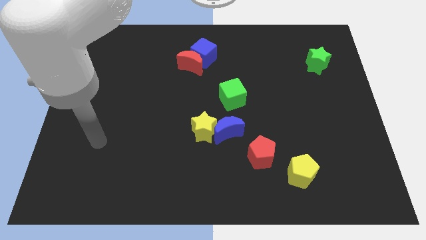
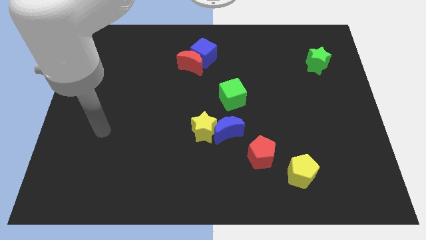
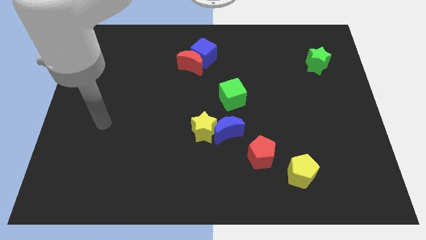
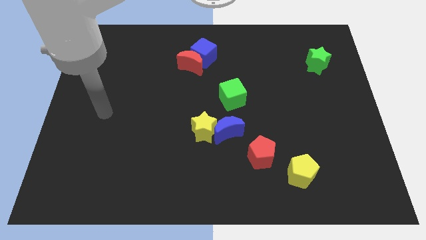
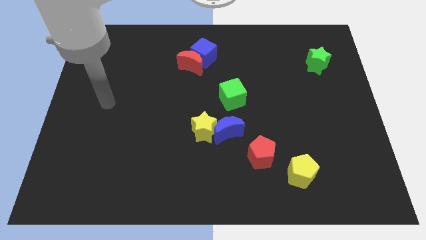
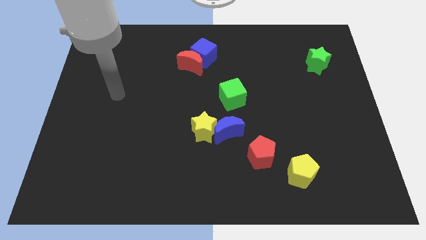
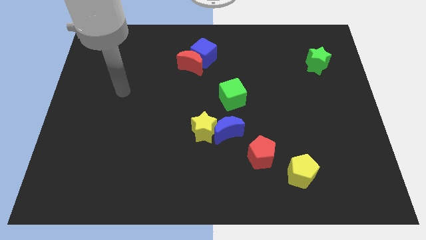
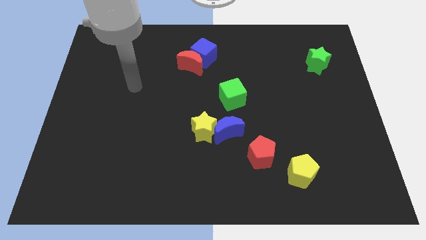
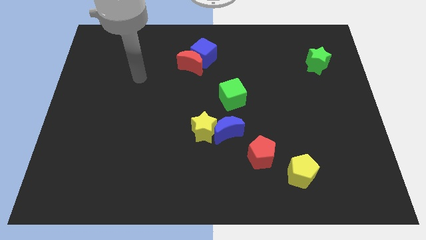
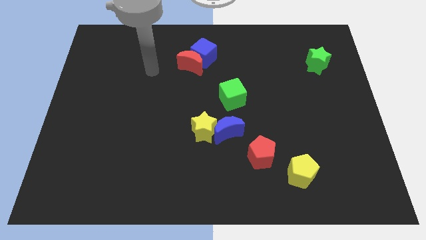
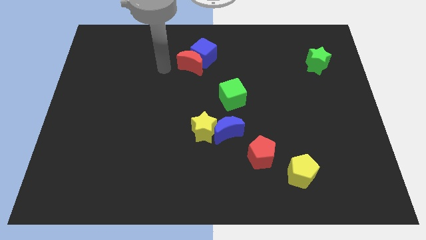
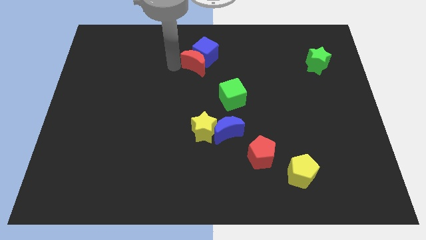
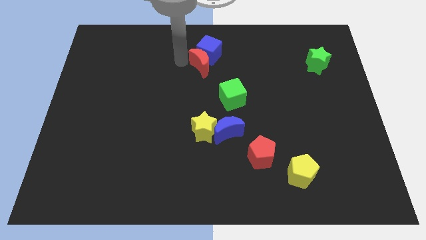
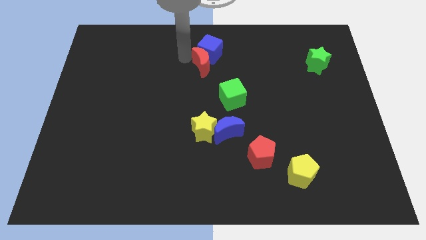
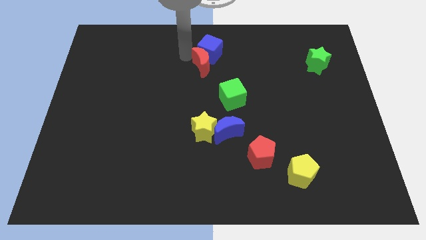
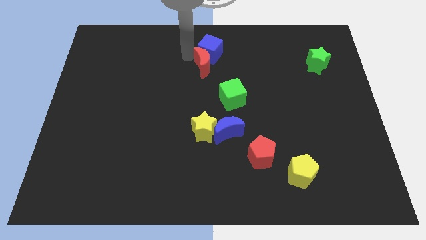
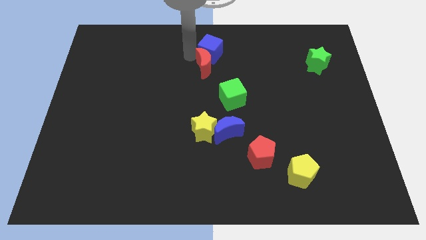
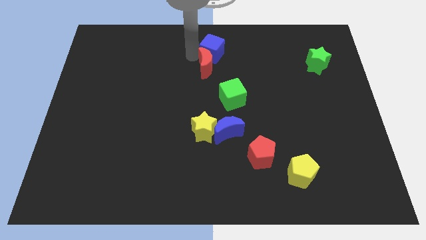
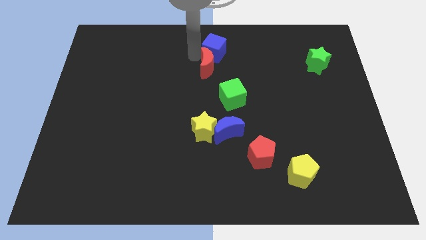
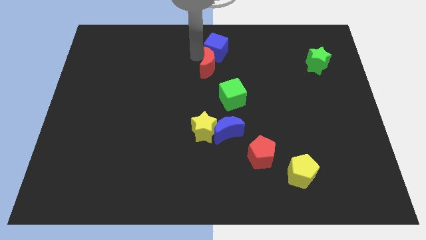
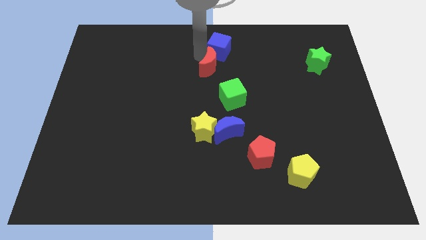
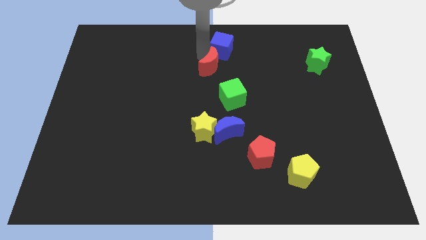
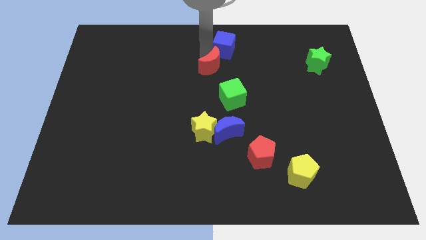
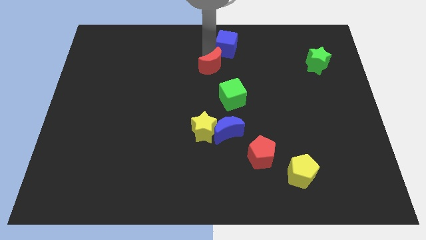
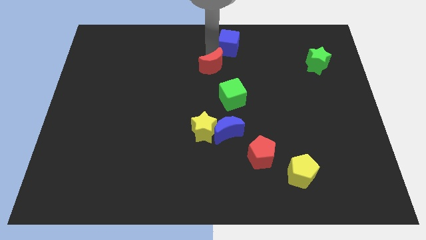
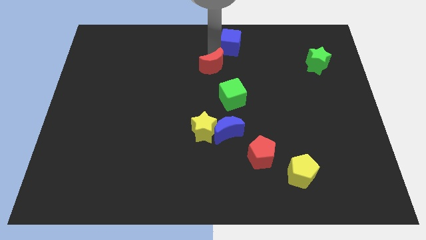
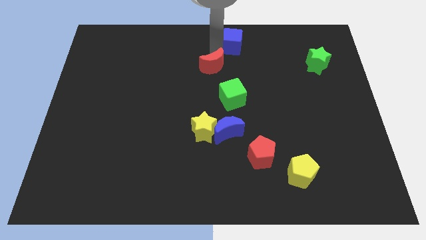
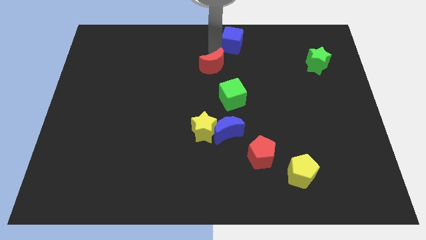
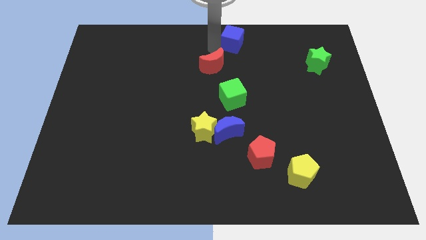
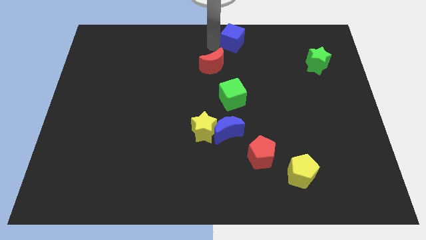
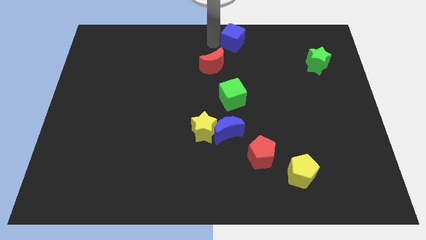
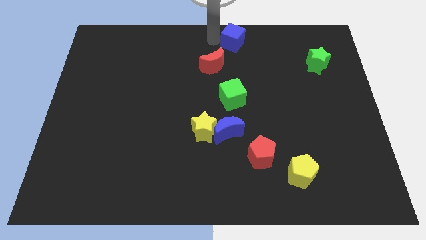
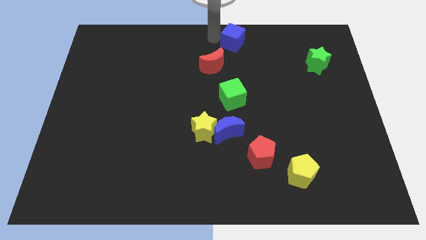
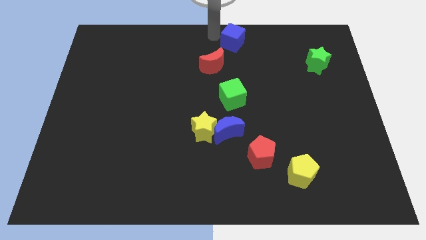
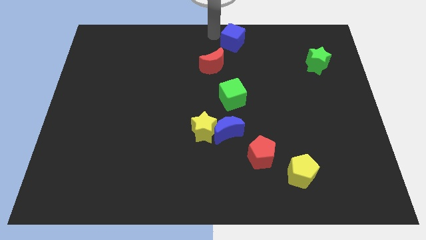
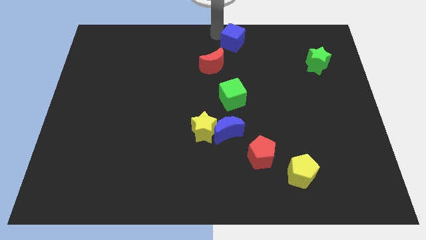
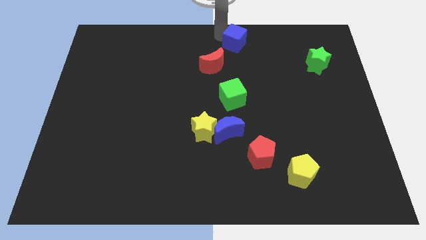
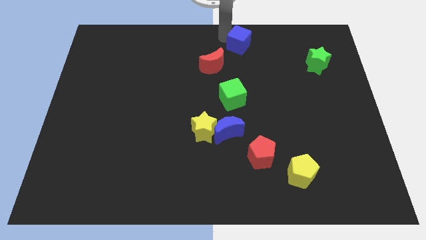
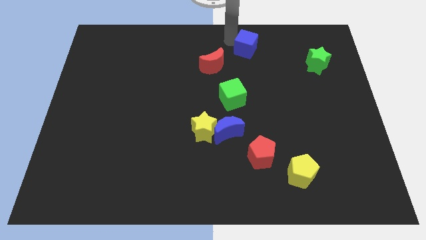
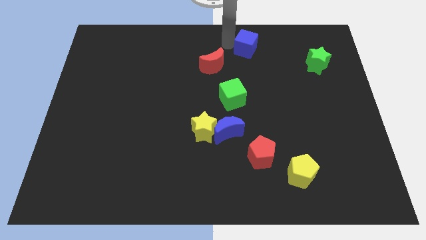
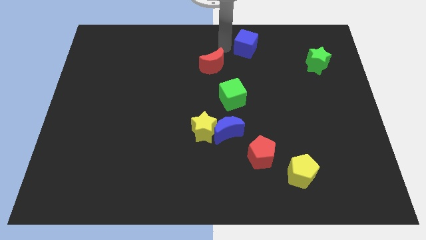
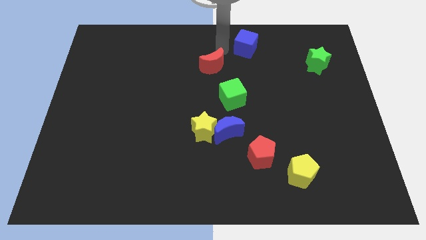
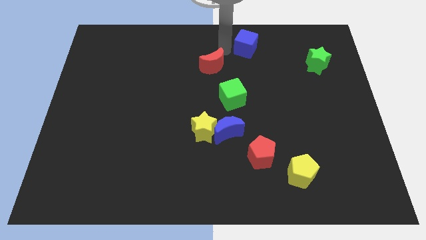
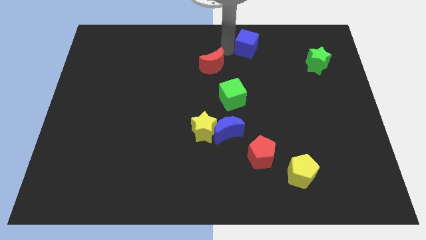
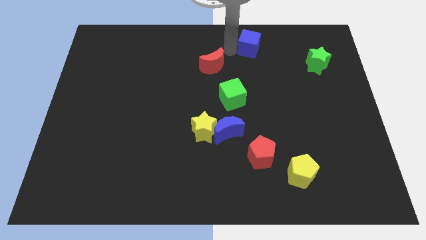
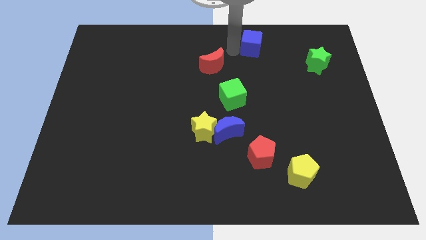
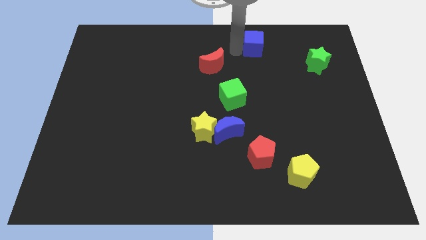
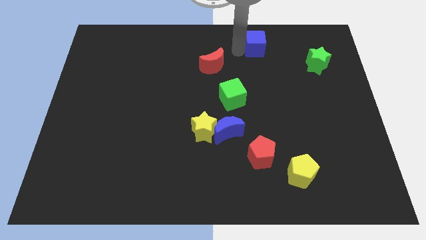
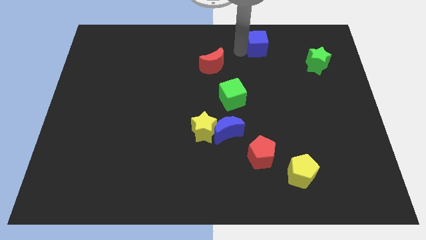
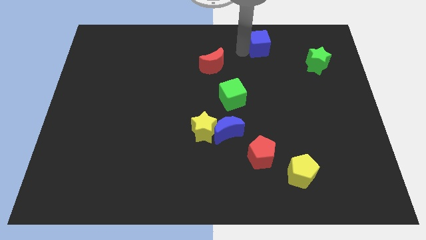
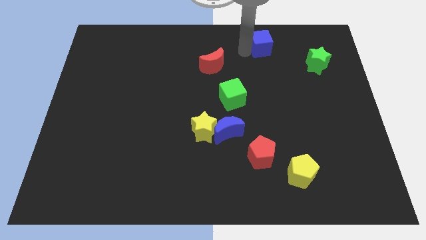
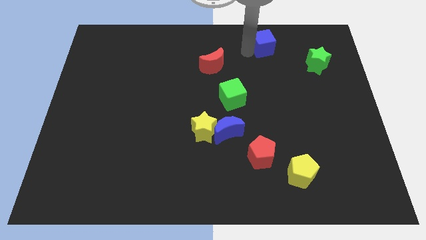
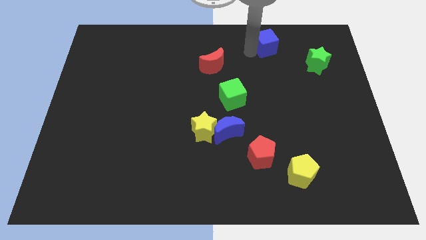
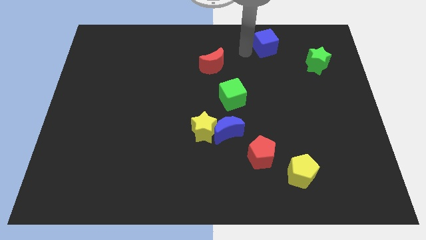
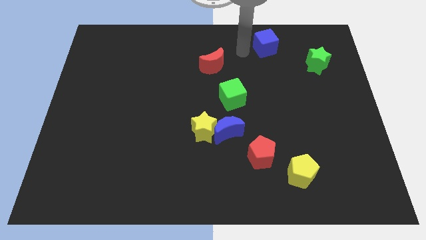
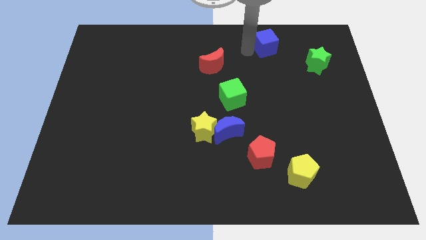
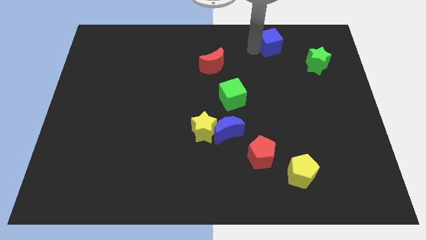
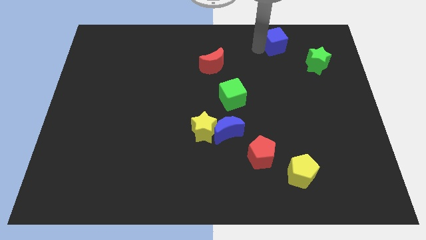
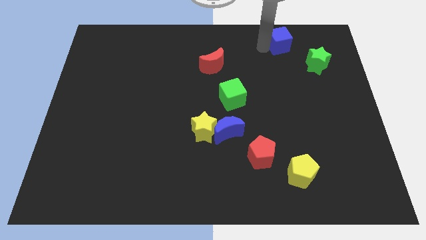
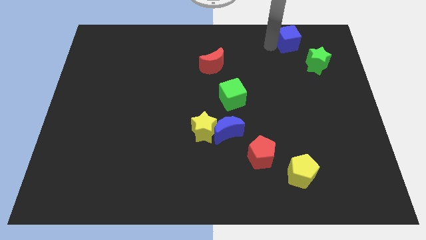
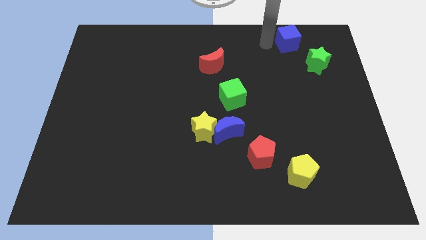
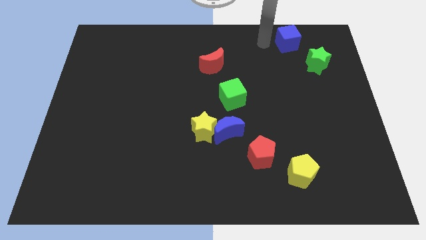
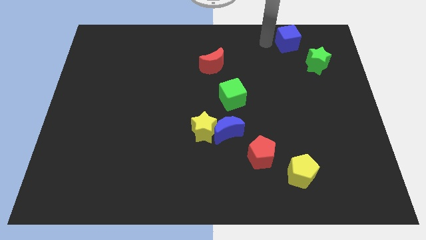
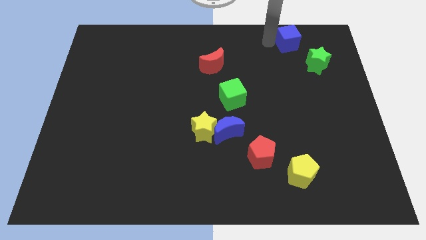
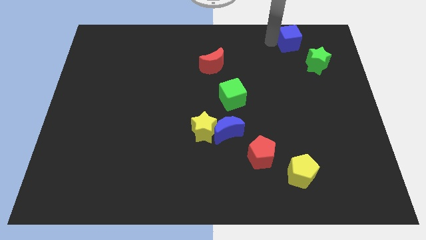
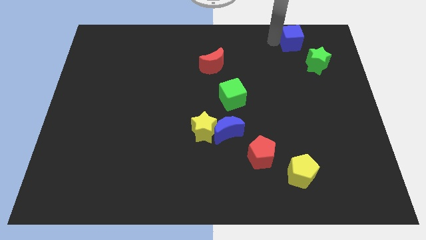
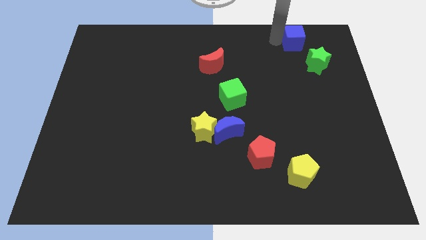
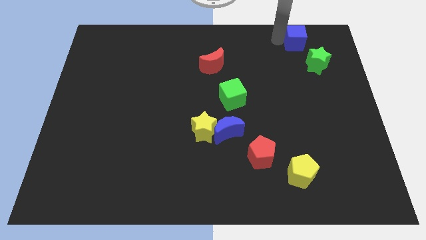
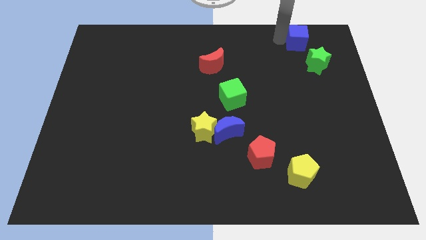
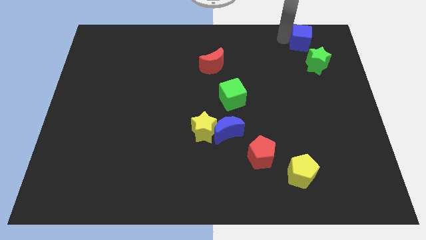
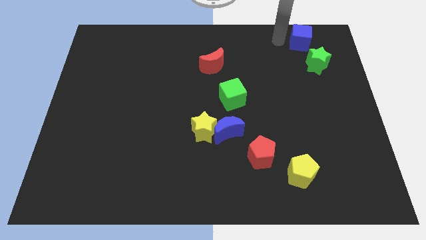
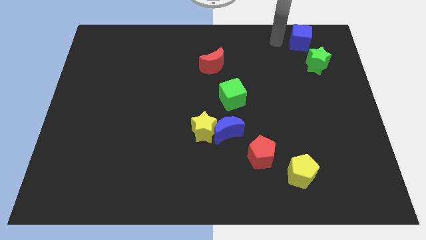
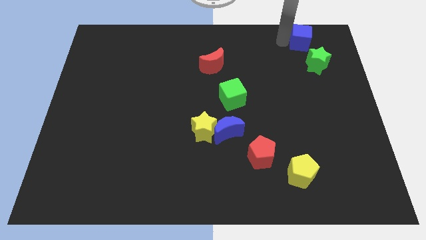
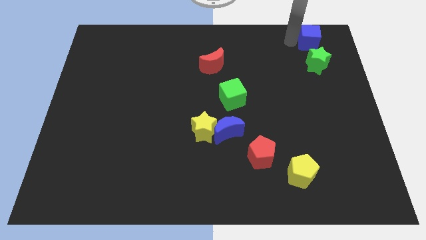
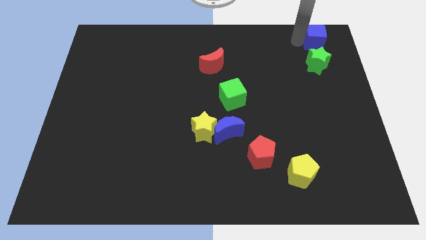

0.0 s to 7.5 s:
move the blue cube to the top right
